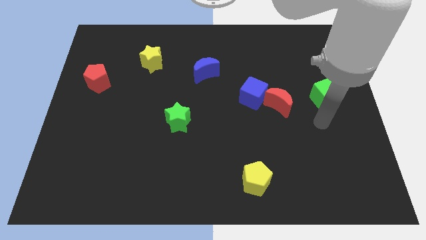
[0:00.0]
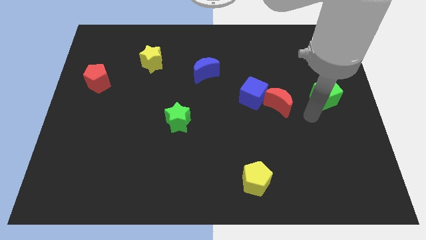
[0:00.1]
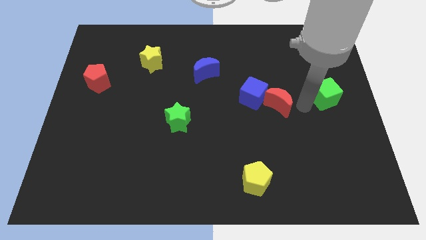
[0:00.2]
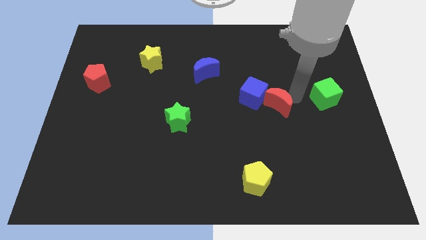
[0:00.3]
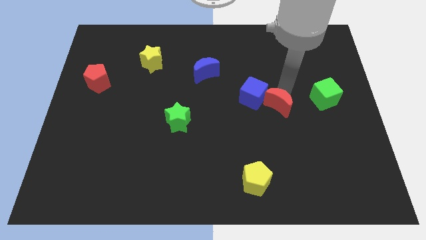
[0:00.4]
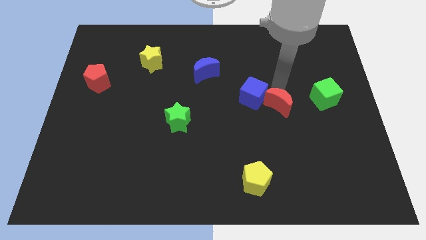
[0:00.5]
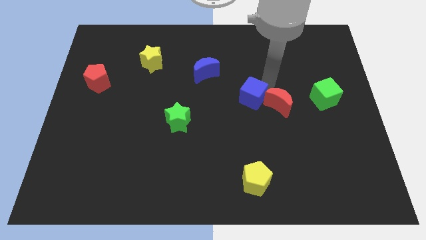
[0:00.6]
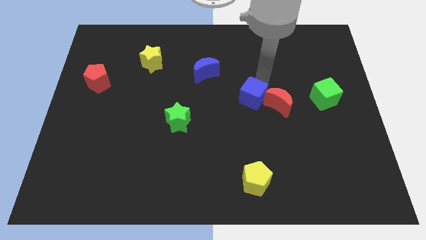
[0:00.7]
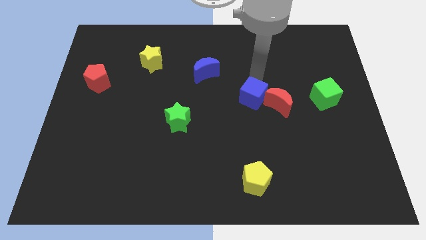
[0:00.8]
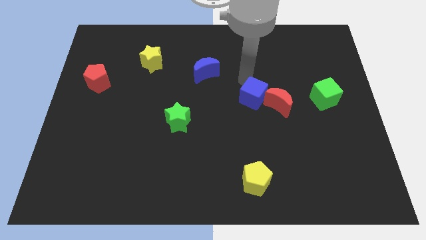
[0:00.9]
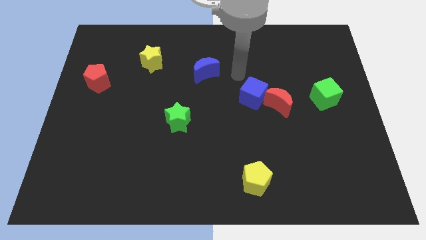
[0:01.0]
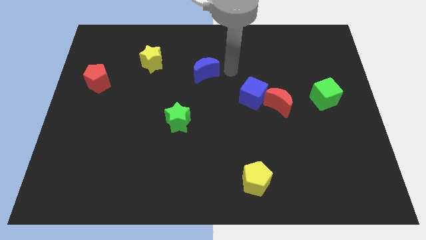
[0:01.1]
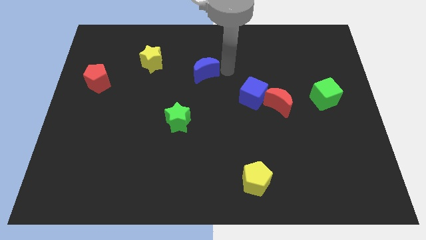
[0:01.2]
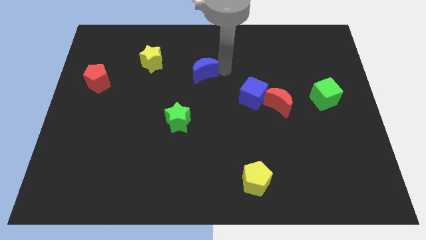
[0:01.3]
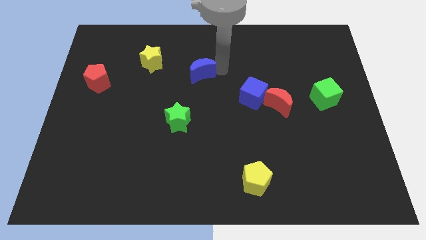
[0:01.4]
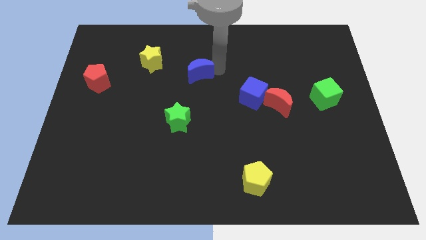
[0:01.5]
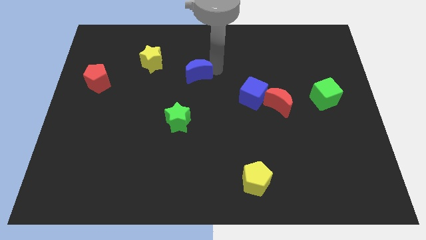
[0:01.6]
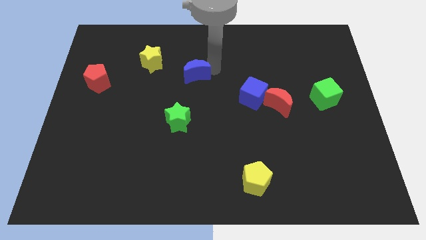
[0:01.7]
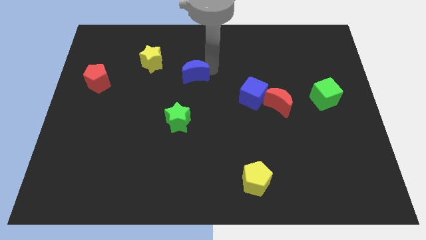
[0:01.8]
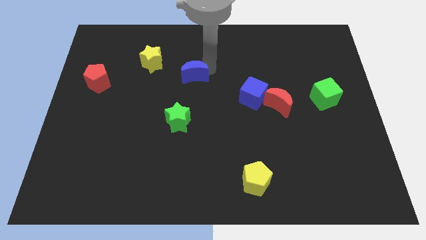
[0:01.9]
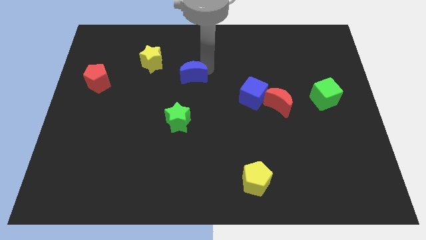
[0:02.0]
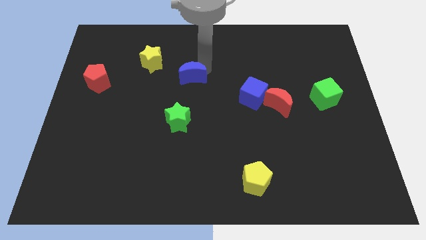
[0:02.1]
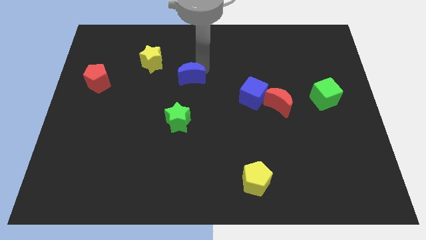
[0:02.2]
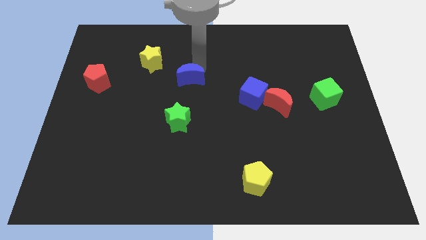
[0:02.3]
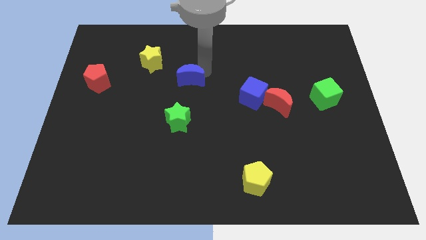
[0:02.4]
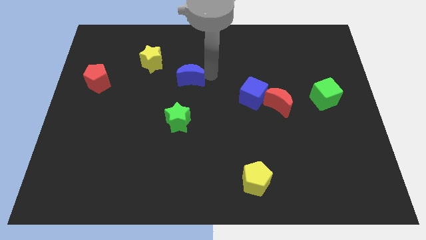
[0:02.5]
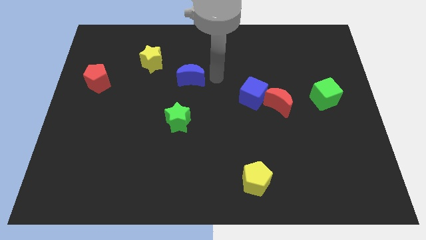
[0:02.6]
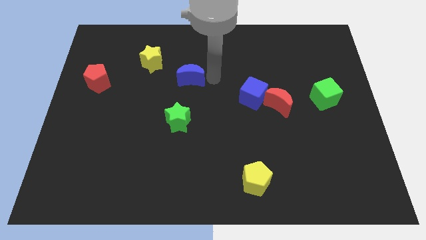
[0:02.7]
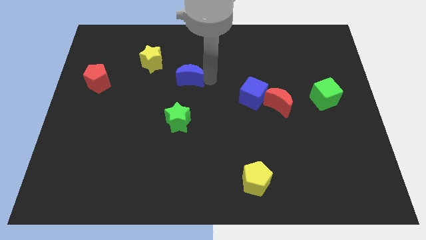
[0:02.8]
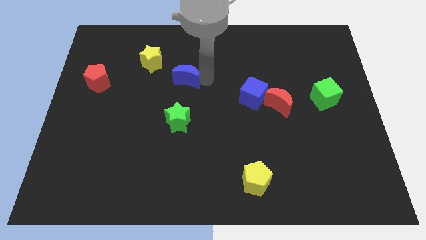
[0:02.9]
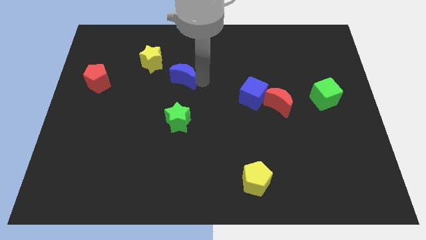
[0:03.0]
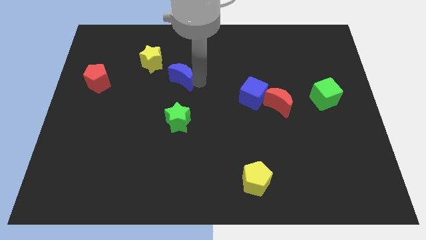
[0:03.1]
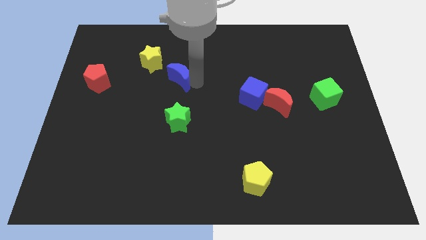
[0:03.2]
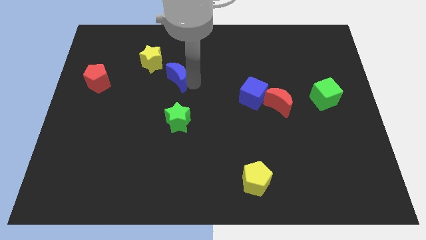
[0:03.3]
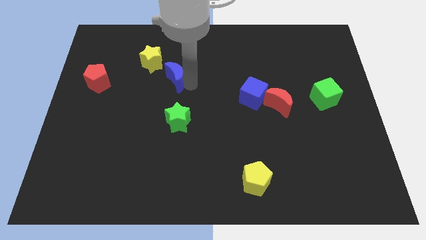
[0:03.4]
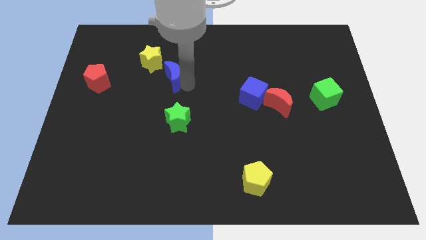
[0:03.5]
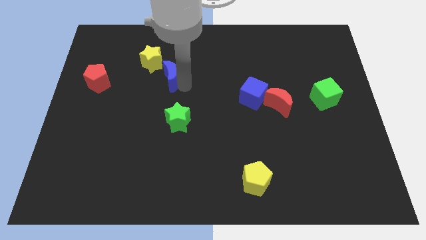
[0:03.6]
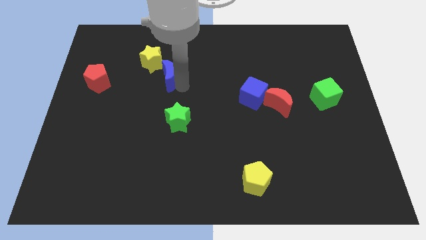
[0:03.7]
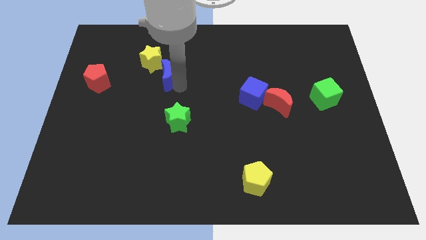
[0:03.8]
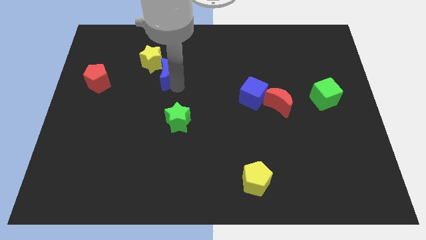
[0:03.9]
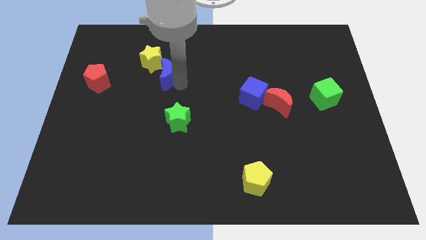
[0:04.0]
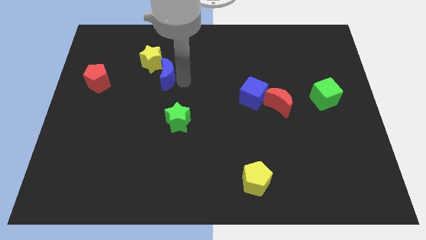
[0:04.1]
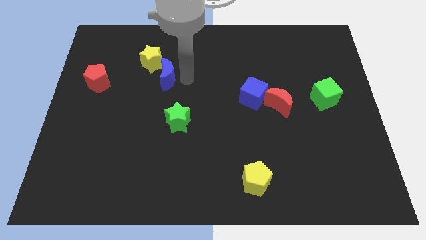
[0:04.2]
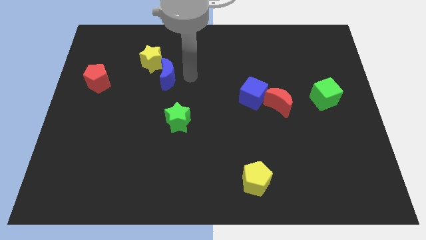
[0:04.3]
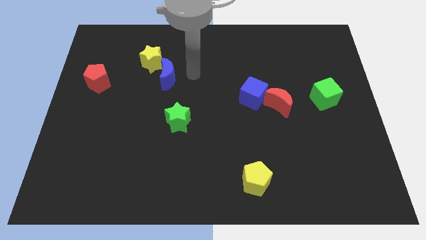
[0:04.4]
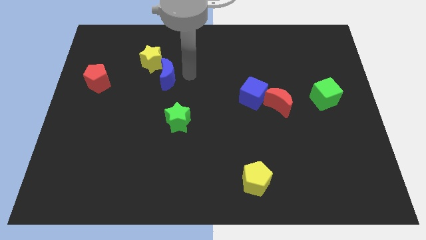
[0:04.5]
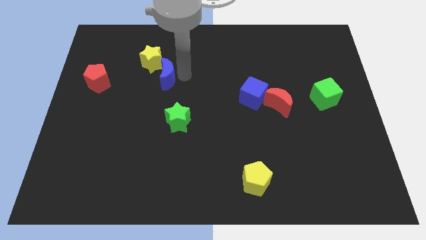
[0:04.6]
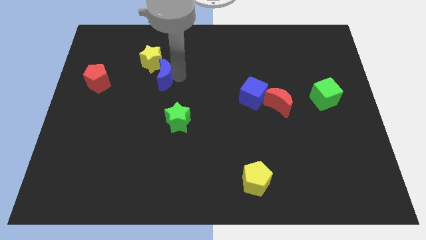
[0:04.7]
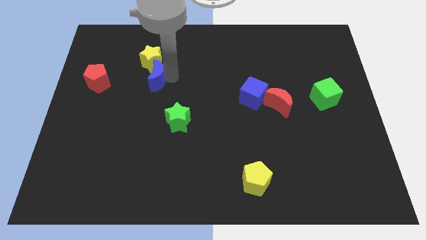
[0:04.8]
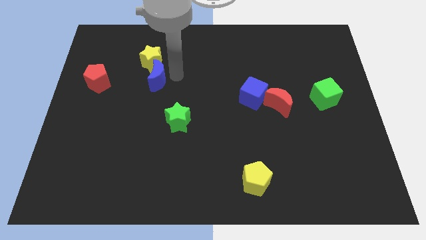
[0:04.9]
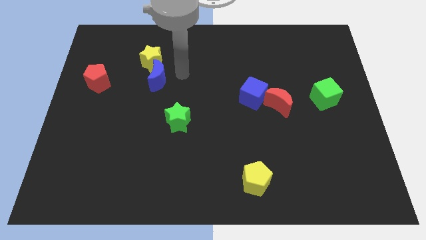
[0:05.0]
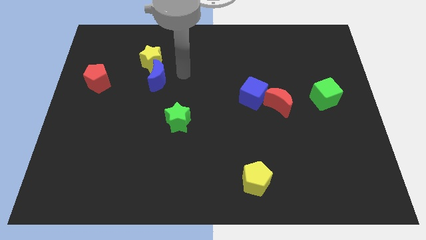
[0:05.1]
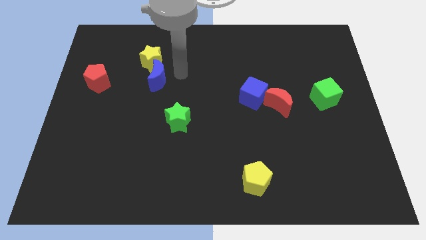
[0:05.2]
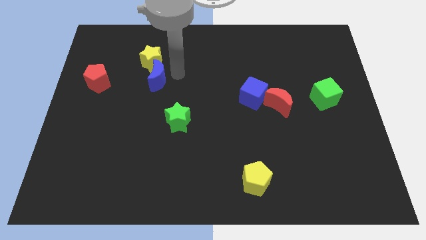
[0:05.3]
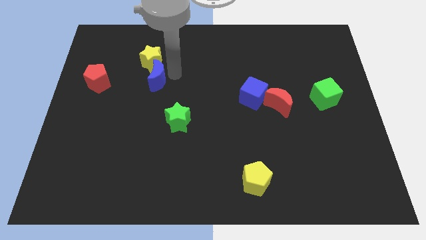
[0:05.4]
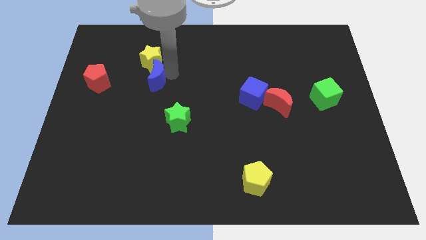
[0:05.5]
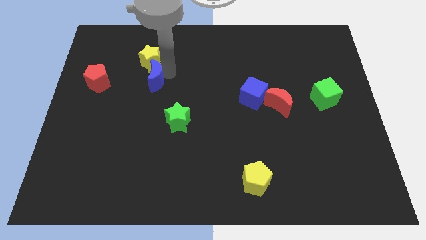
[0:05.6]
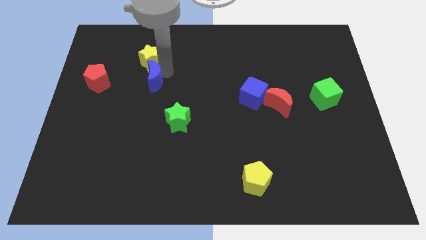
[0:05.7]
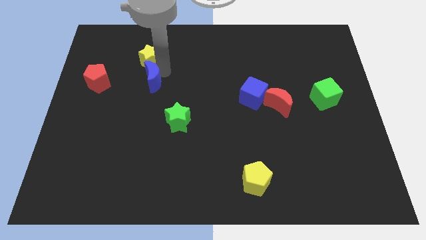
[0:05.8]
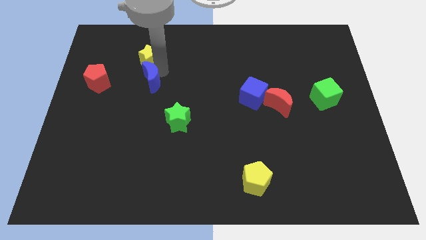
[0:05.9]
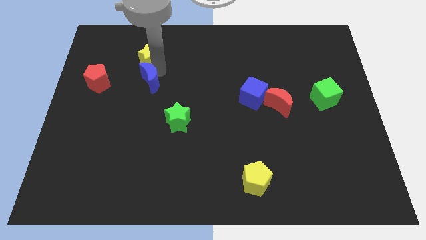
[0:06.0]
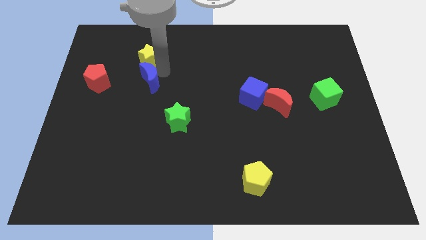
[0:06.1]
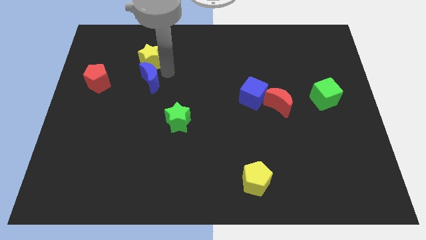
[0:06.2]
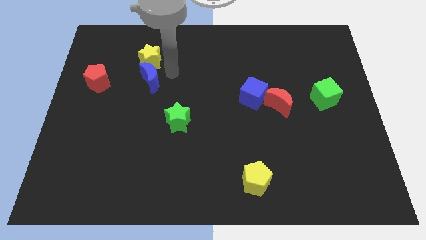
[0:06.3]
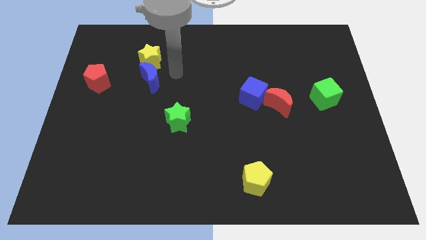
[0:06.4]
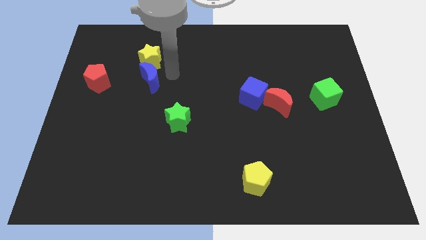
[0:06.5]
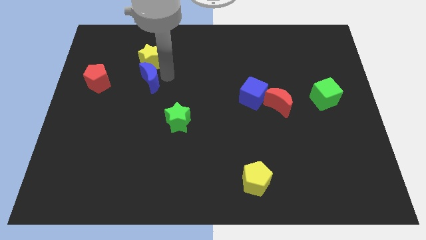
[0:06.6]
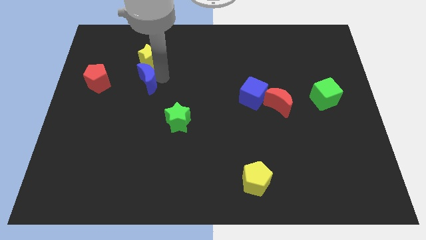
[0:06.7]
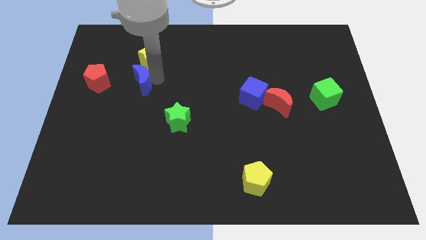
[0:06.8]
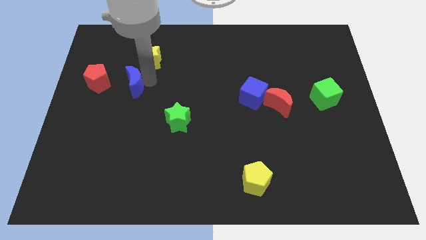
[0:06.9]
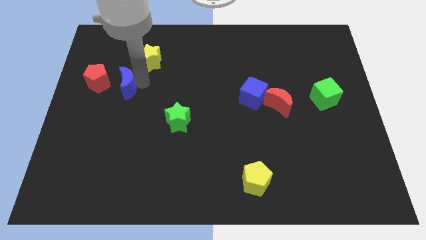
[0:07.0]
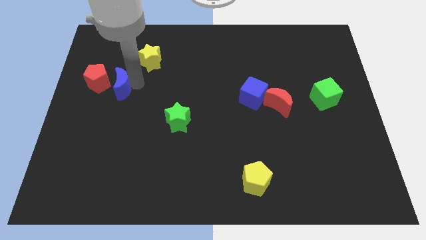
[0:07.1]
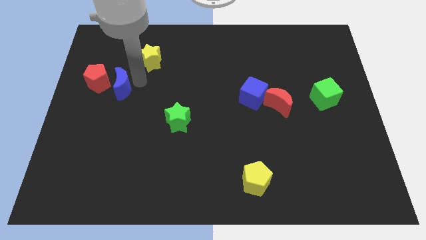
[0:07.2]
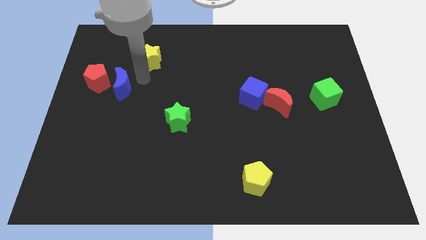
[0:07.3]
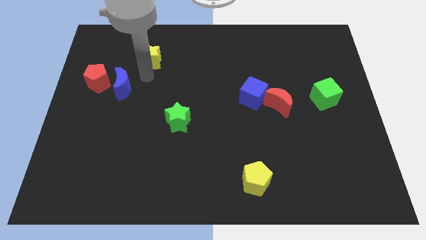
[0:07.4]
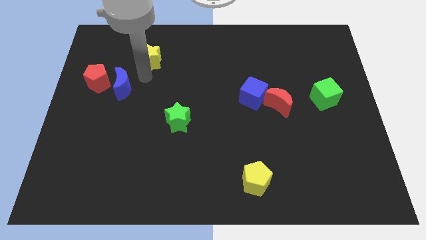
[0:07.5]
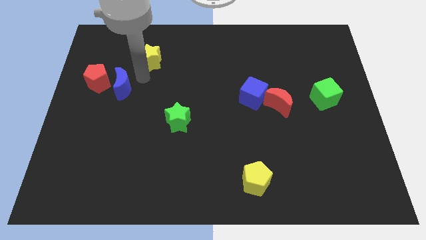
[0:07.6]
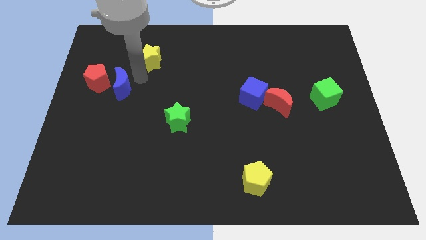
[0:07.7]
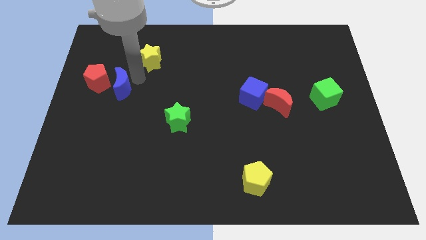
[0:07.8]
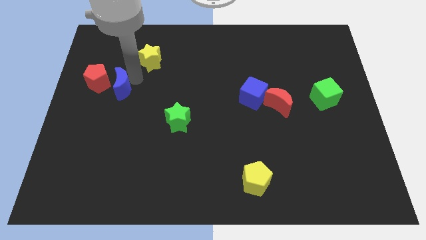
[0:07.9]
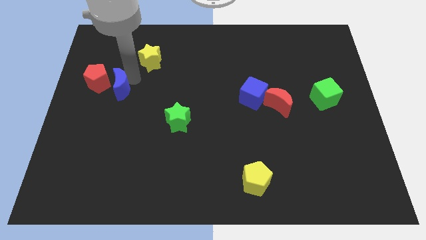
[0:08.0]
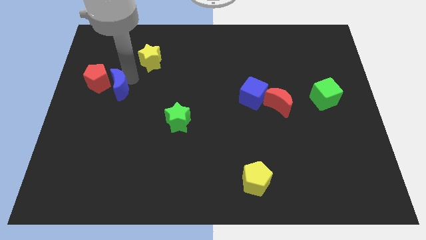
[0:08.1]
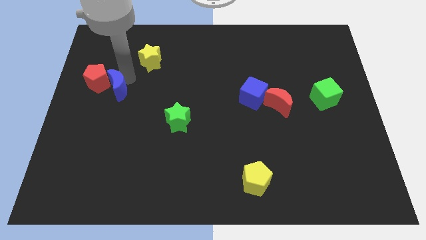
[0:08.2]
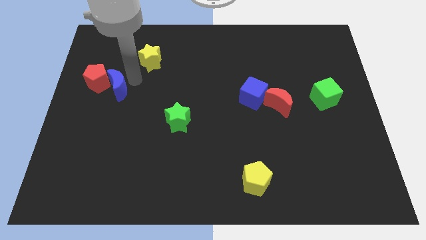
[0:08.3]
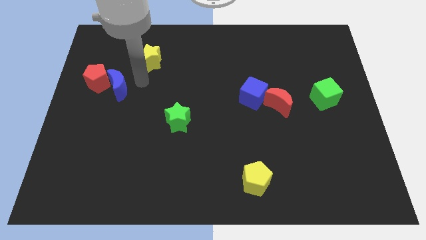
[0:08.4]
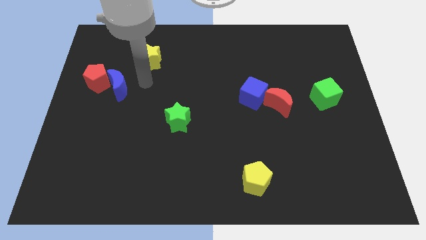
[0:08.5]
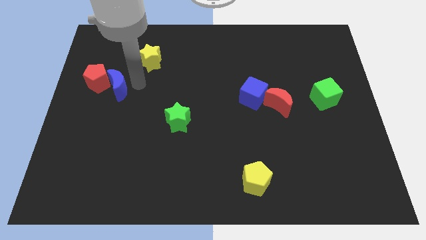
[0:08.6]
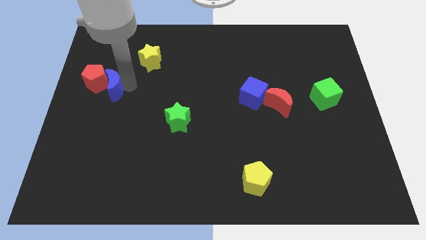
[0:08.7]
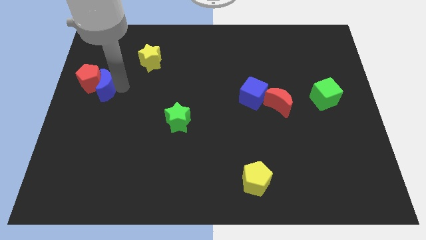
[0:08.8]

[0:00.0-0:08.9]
slide the blue moon to the center left
